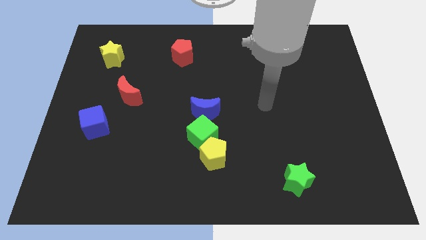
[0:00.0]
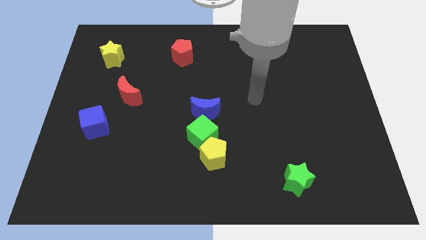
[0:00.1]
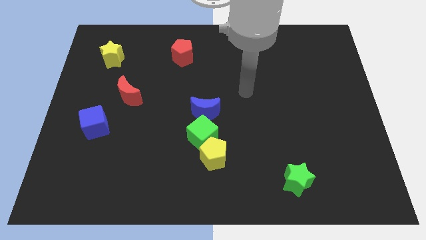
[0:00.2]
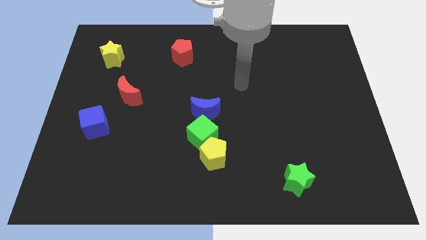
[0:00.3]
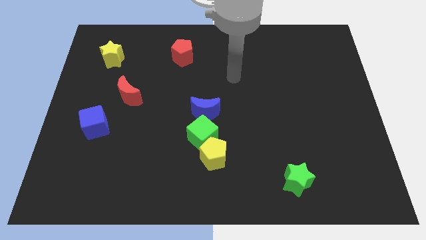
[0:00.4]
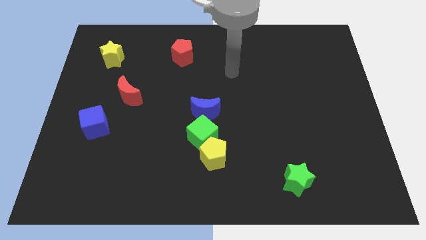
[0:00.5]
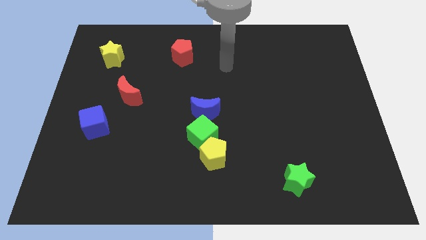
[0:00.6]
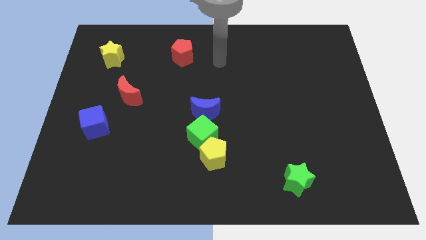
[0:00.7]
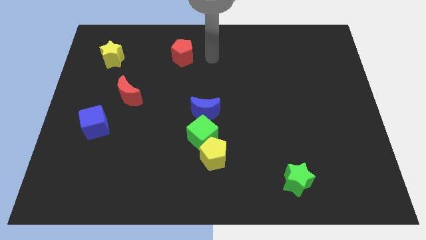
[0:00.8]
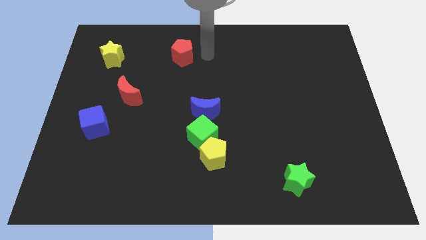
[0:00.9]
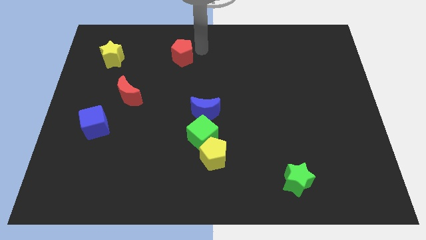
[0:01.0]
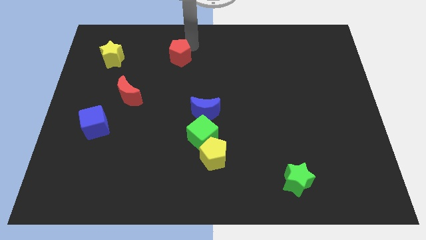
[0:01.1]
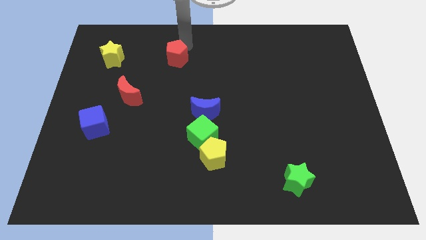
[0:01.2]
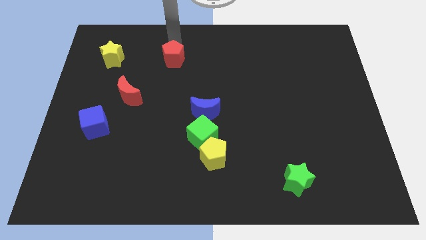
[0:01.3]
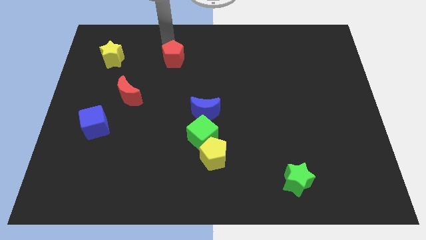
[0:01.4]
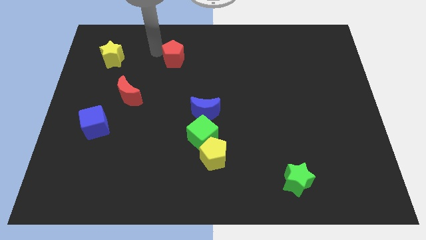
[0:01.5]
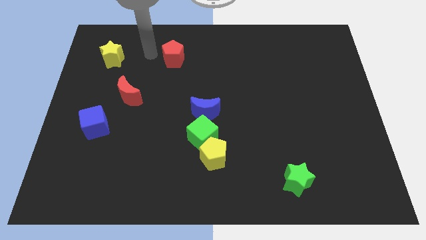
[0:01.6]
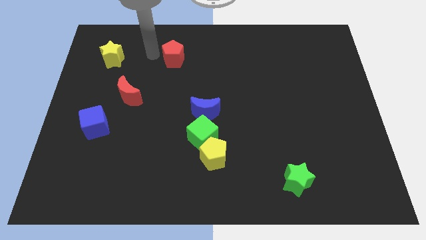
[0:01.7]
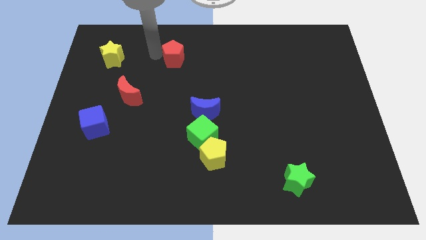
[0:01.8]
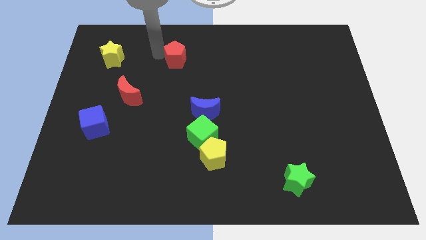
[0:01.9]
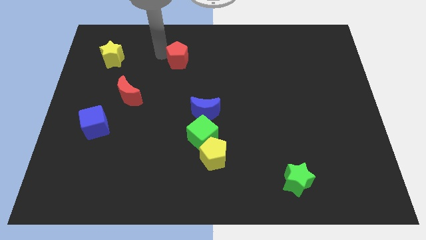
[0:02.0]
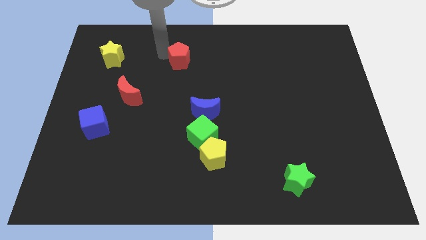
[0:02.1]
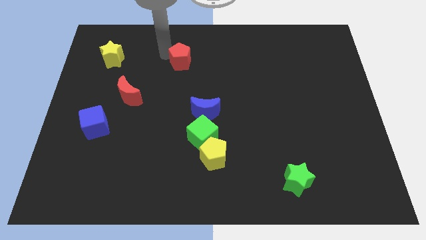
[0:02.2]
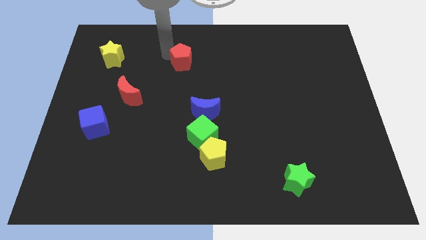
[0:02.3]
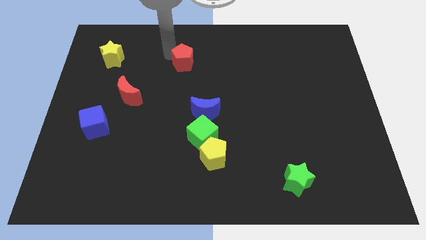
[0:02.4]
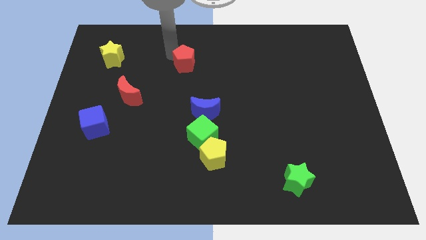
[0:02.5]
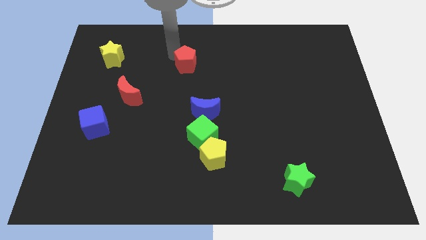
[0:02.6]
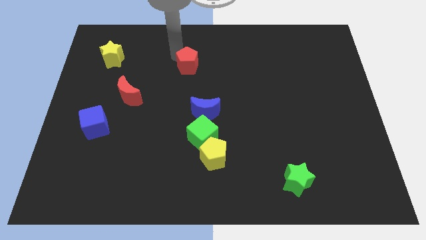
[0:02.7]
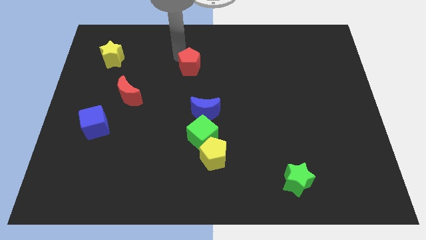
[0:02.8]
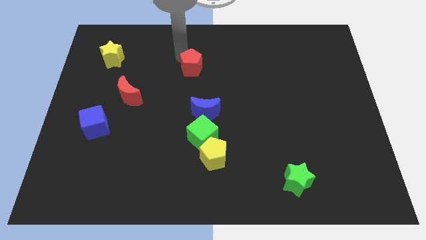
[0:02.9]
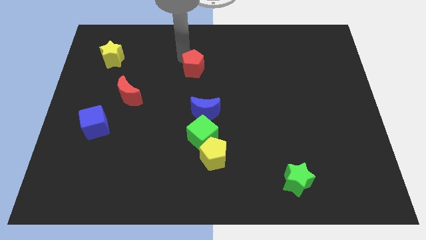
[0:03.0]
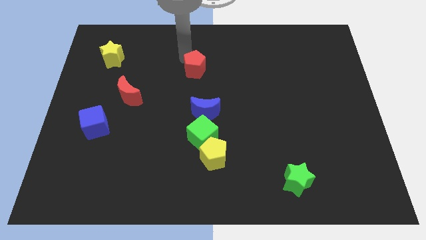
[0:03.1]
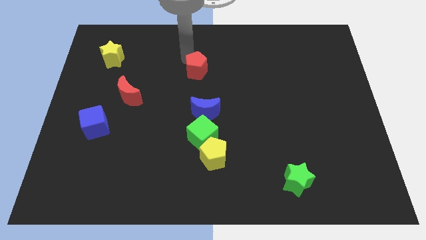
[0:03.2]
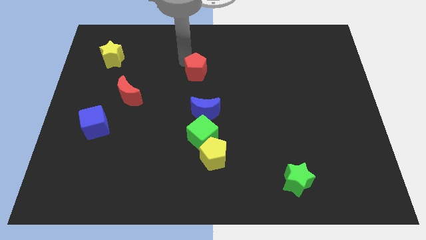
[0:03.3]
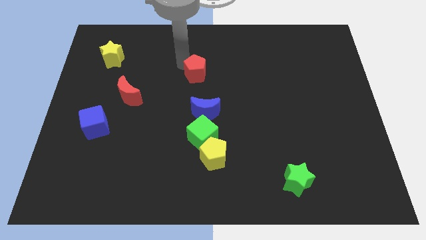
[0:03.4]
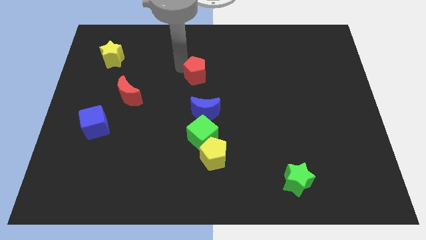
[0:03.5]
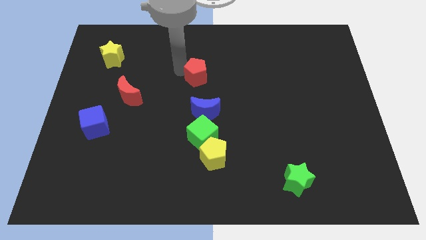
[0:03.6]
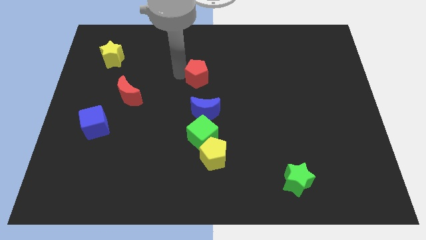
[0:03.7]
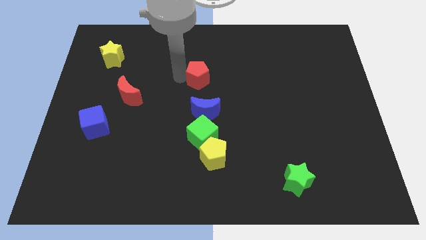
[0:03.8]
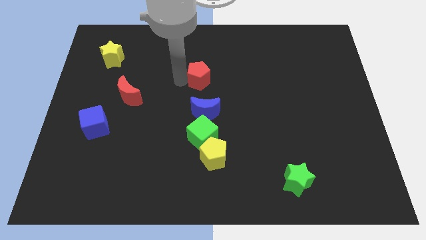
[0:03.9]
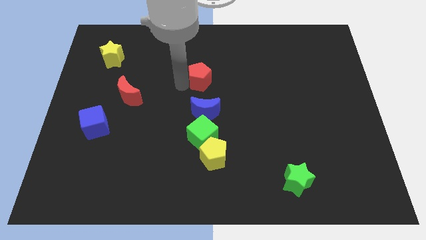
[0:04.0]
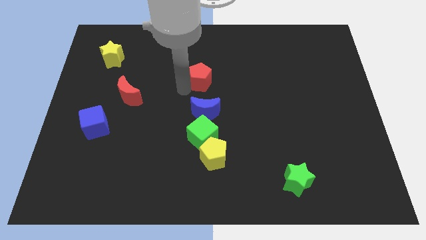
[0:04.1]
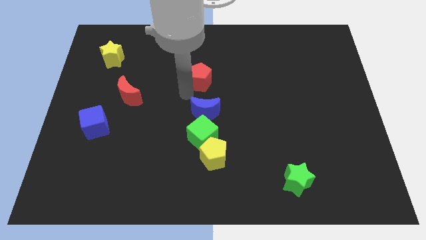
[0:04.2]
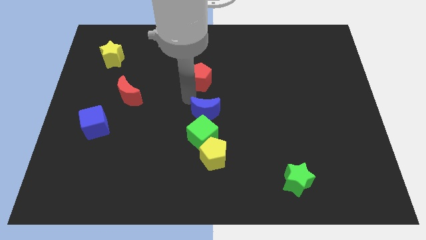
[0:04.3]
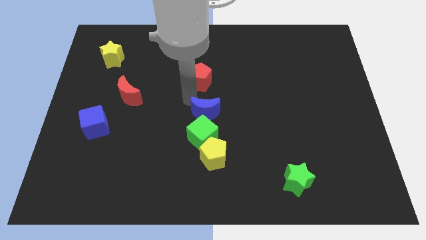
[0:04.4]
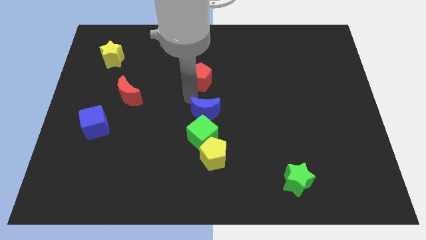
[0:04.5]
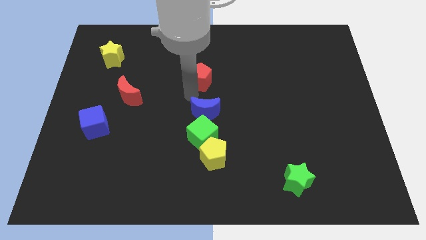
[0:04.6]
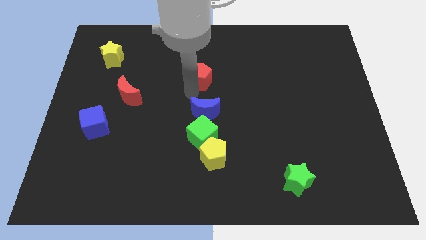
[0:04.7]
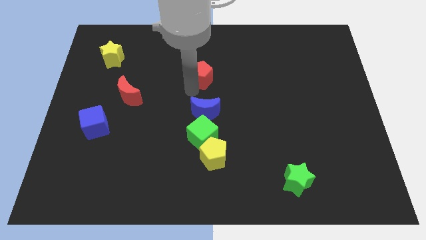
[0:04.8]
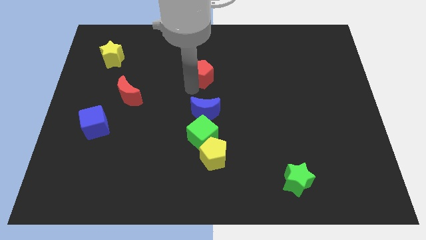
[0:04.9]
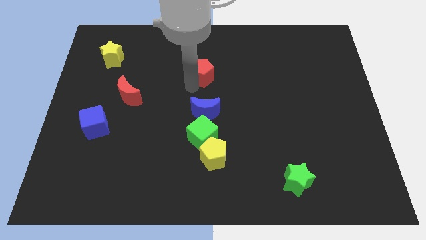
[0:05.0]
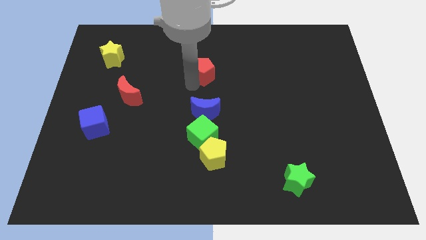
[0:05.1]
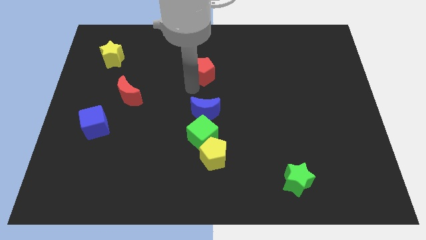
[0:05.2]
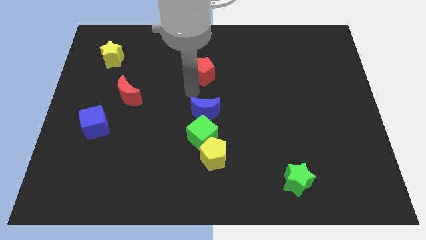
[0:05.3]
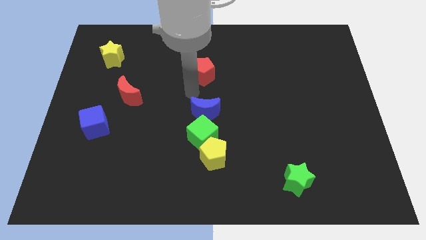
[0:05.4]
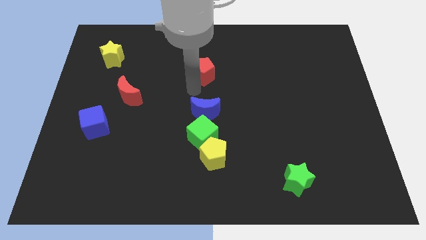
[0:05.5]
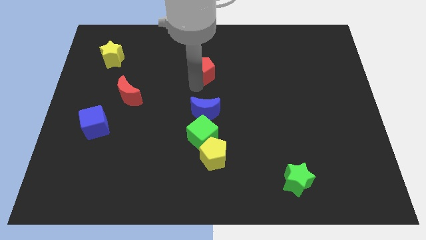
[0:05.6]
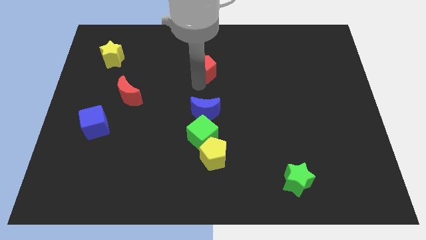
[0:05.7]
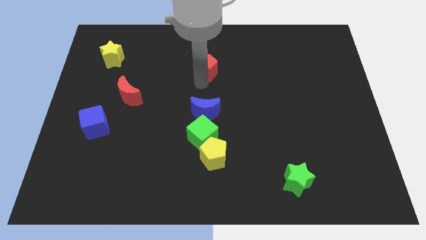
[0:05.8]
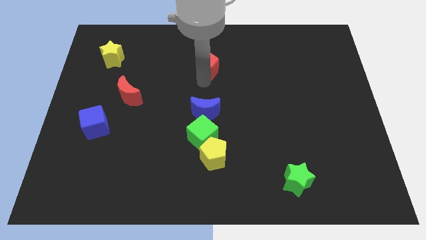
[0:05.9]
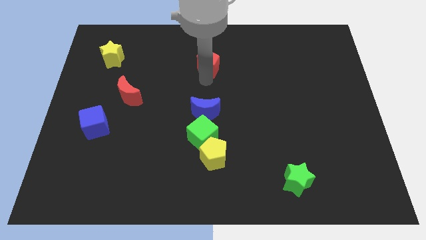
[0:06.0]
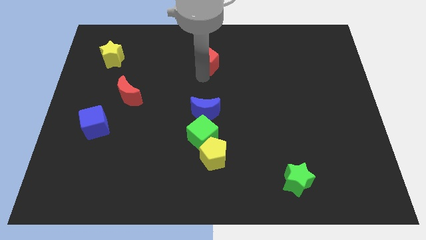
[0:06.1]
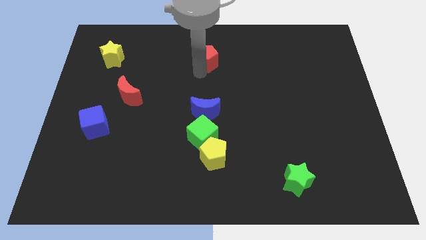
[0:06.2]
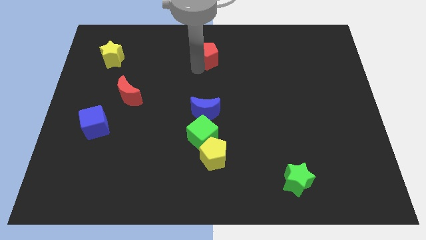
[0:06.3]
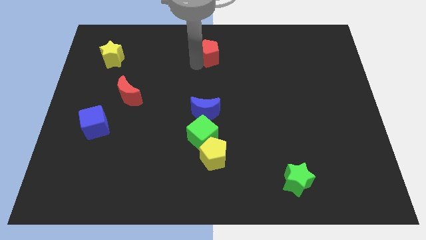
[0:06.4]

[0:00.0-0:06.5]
move the red pentagon to the top

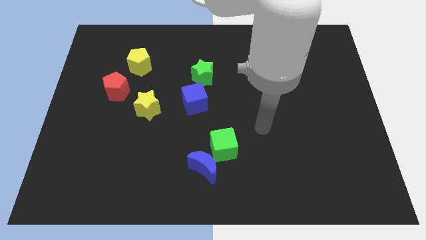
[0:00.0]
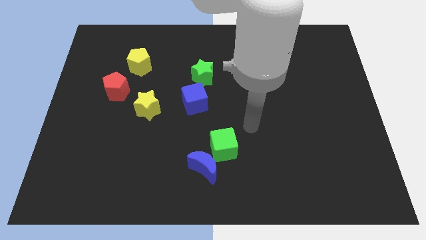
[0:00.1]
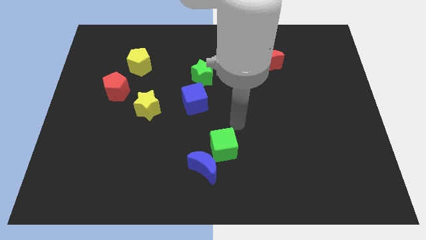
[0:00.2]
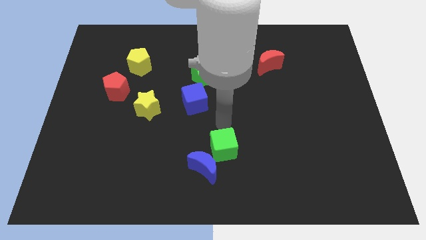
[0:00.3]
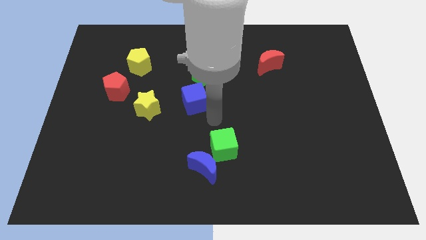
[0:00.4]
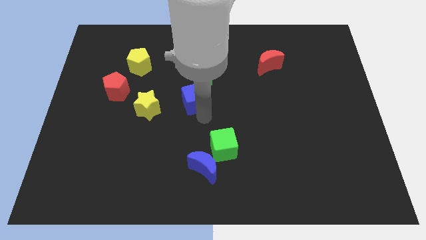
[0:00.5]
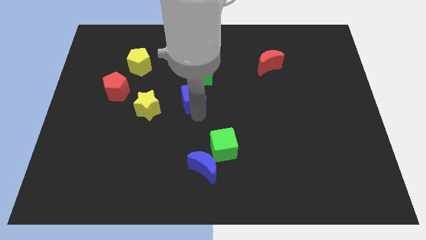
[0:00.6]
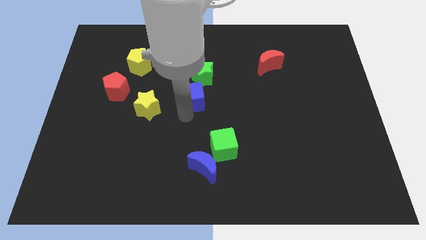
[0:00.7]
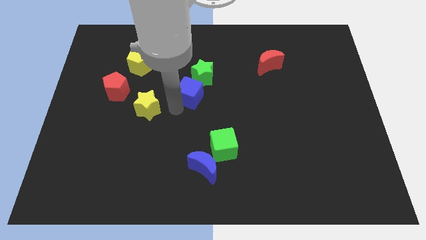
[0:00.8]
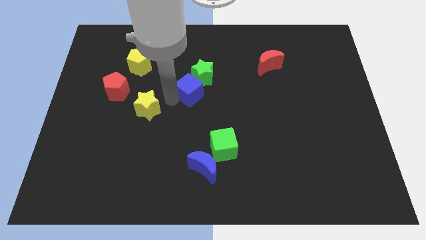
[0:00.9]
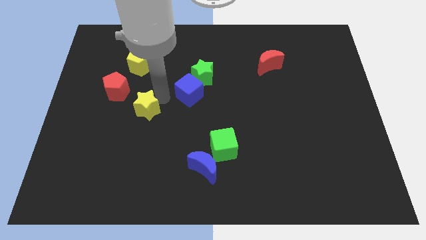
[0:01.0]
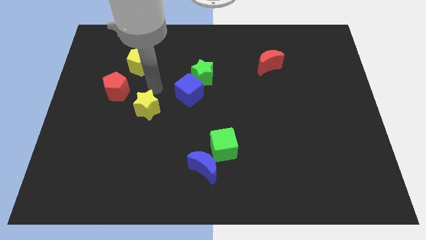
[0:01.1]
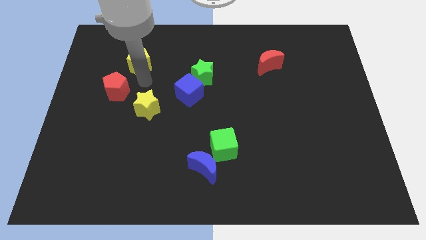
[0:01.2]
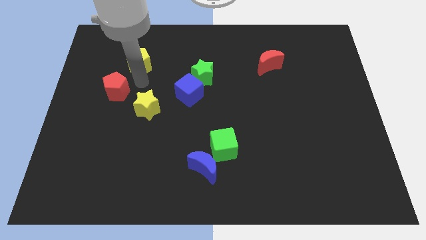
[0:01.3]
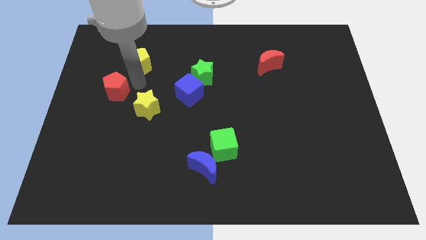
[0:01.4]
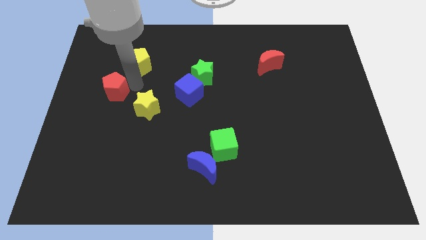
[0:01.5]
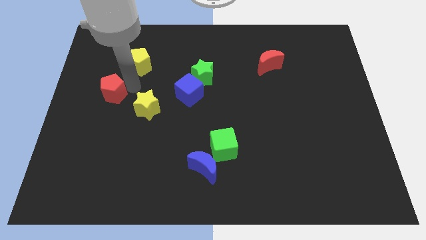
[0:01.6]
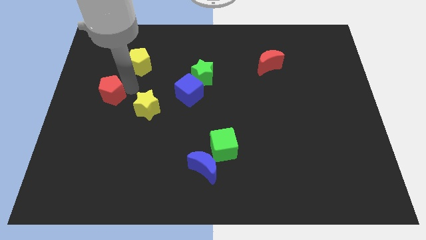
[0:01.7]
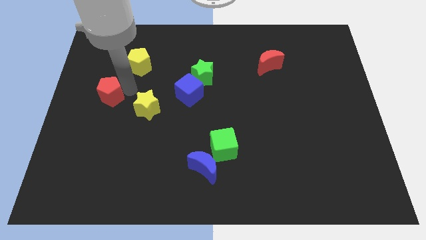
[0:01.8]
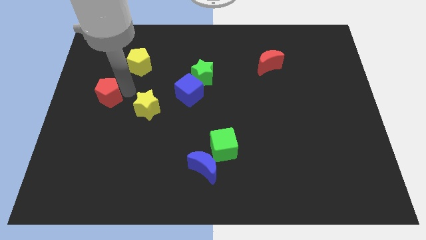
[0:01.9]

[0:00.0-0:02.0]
slide the red pentagon to the left side of the board
